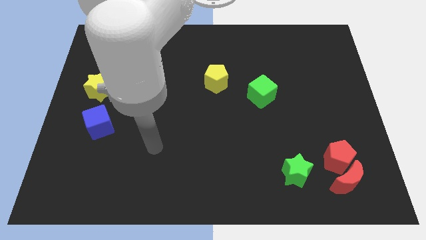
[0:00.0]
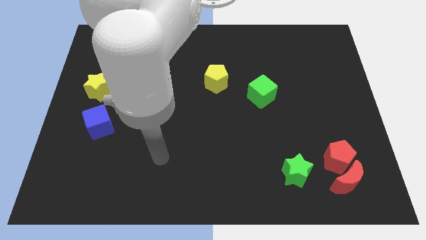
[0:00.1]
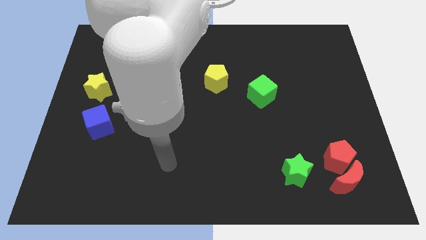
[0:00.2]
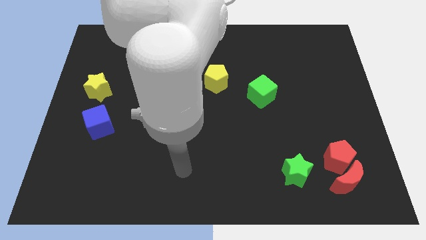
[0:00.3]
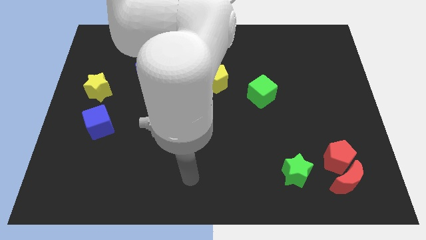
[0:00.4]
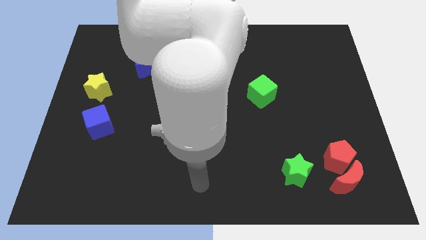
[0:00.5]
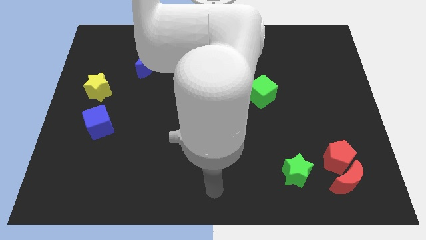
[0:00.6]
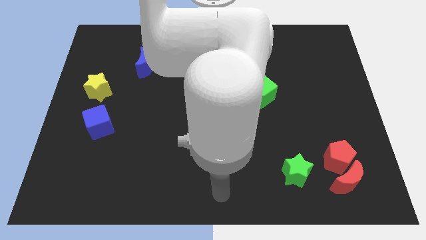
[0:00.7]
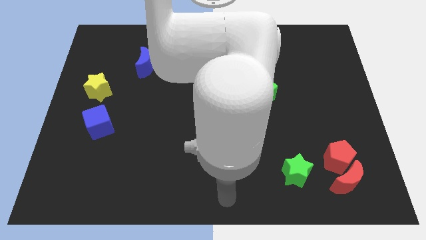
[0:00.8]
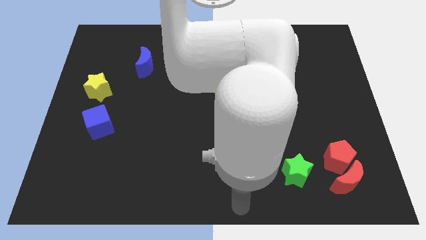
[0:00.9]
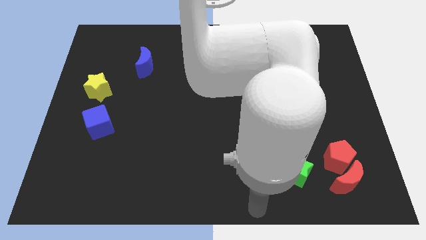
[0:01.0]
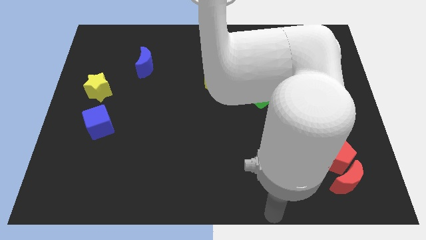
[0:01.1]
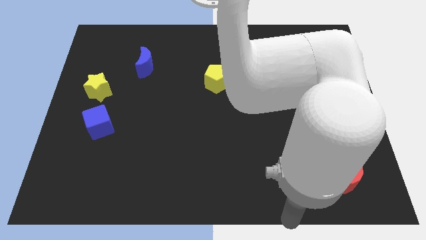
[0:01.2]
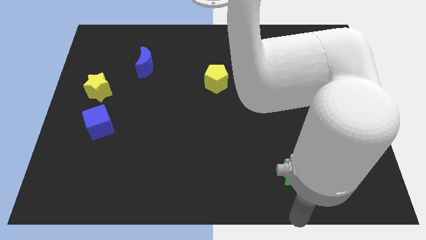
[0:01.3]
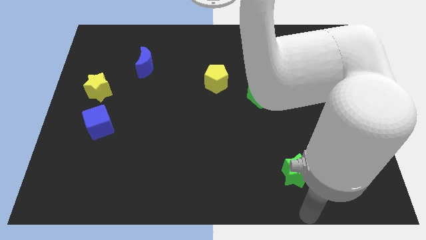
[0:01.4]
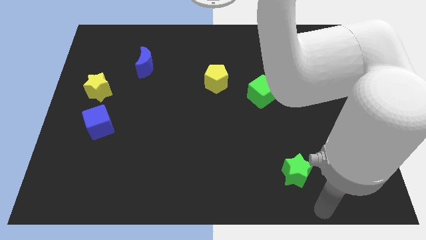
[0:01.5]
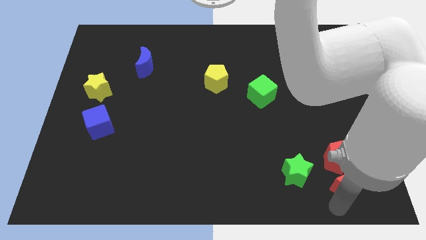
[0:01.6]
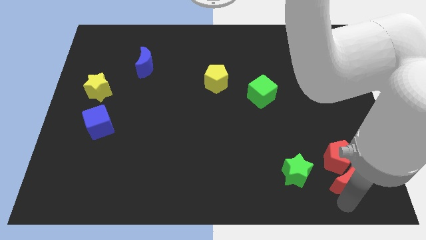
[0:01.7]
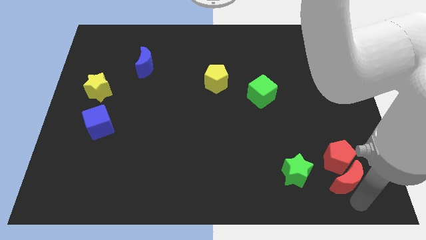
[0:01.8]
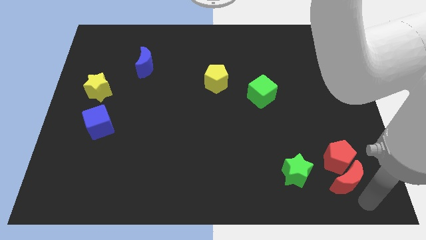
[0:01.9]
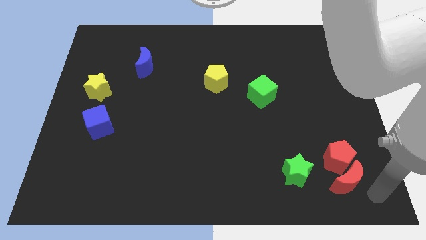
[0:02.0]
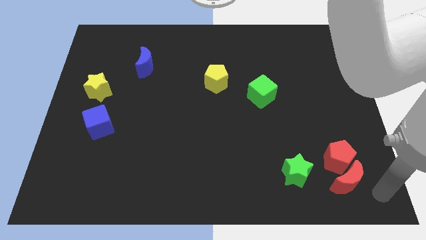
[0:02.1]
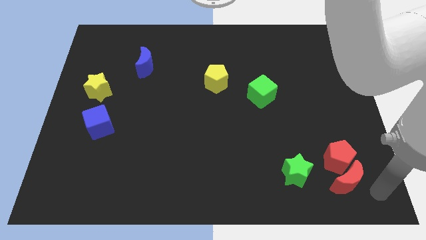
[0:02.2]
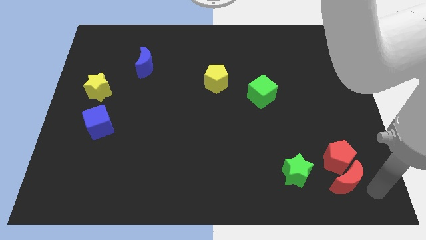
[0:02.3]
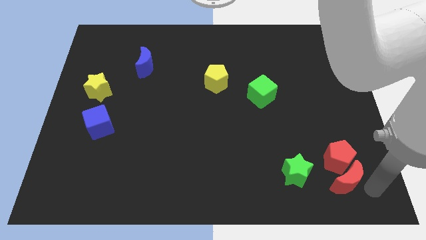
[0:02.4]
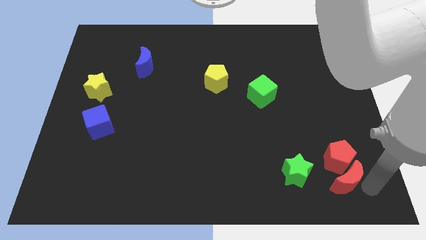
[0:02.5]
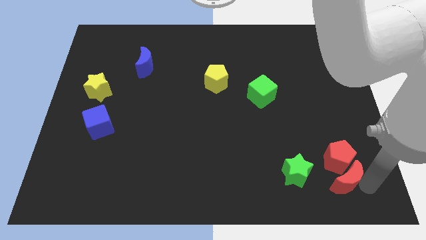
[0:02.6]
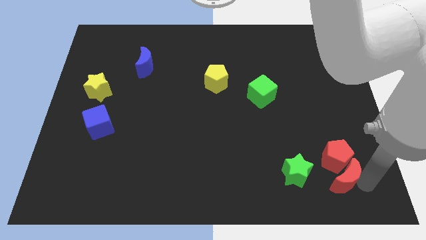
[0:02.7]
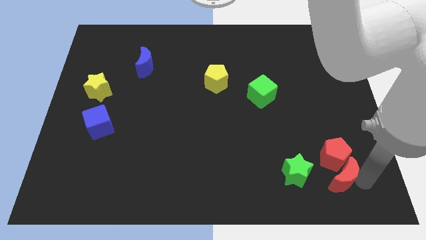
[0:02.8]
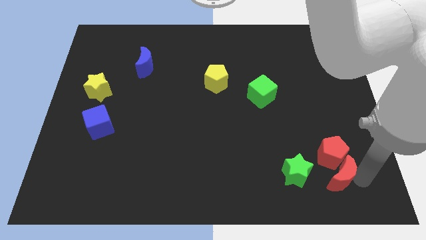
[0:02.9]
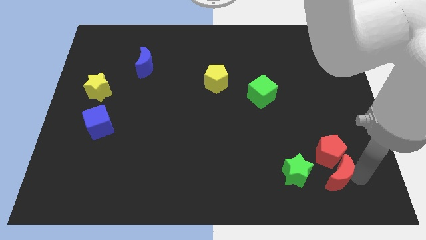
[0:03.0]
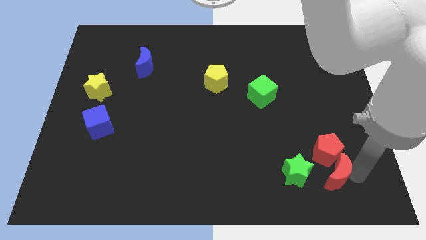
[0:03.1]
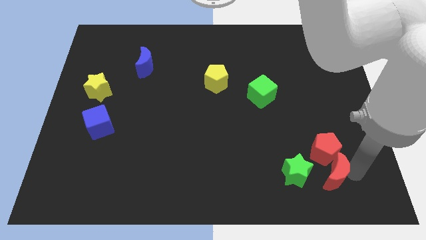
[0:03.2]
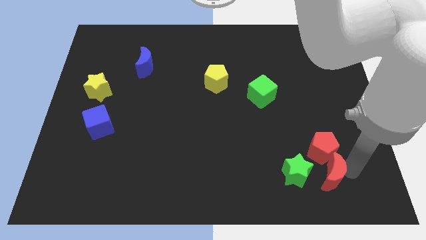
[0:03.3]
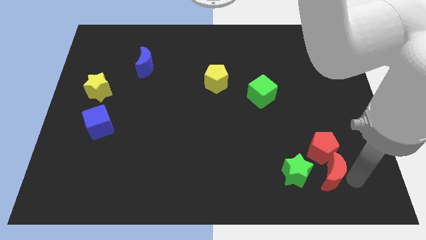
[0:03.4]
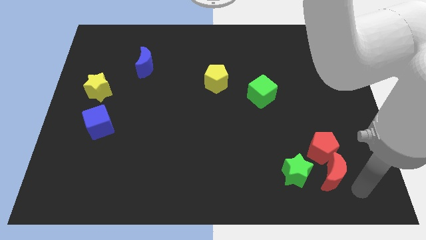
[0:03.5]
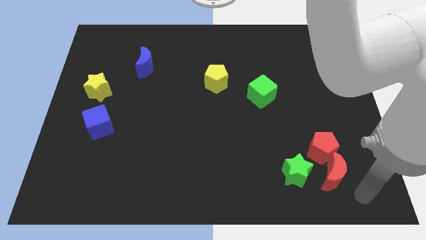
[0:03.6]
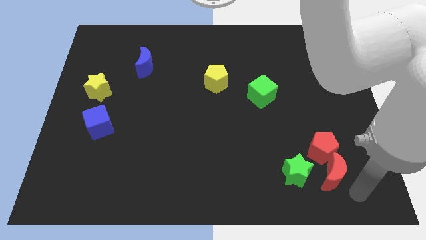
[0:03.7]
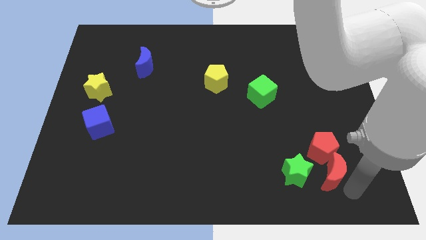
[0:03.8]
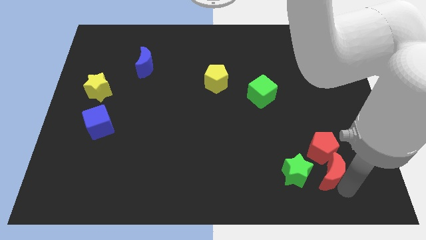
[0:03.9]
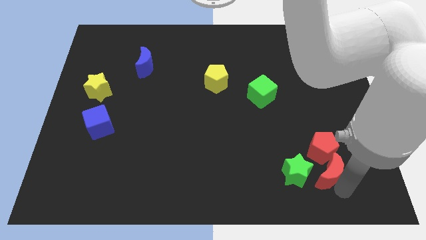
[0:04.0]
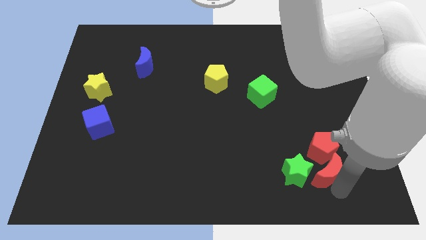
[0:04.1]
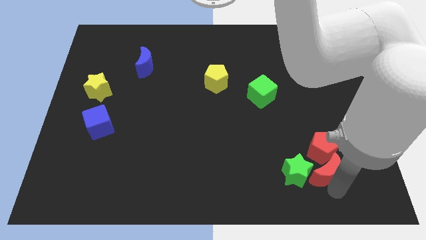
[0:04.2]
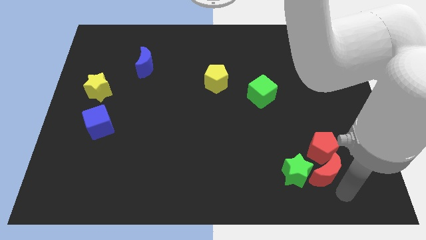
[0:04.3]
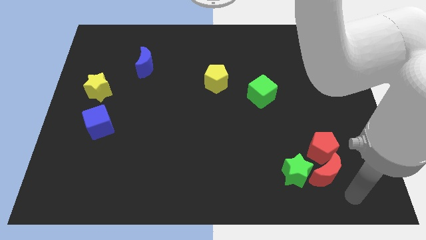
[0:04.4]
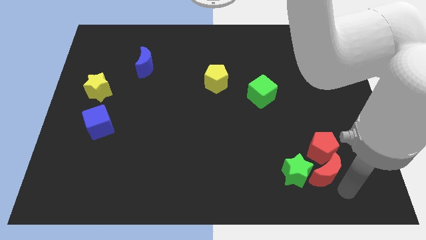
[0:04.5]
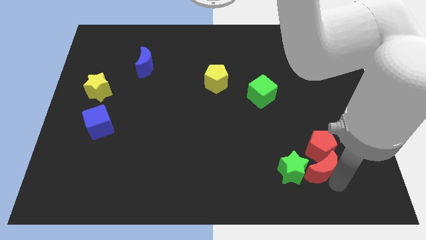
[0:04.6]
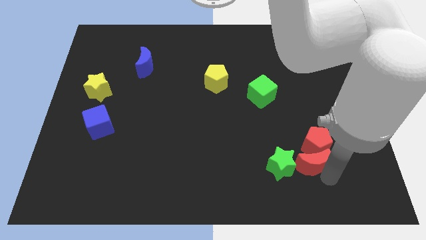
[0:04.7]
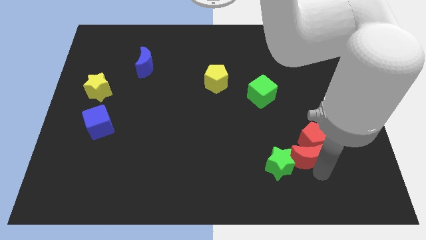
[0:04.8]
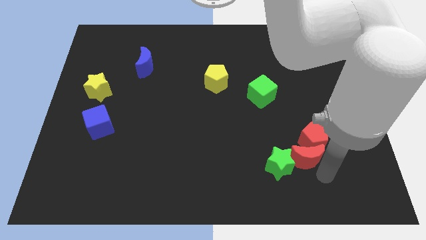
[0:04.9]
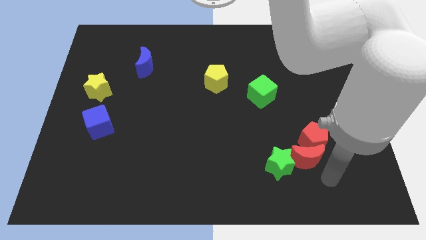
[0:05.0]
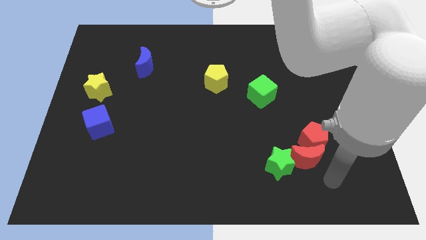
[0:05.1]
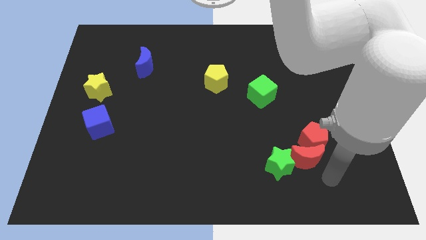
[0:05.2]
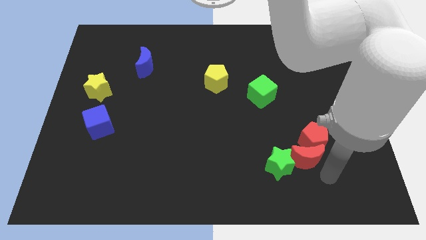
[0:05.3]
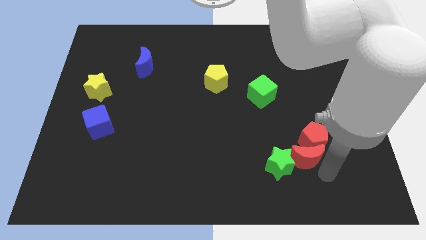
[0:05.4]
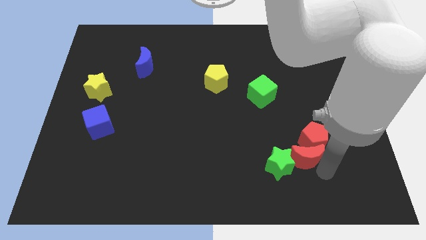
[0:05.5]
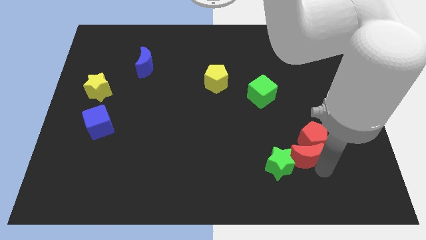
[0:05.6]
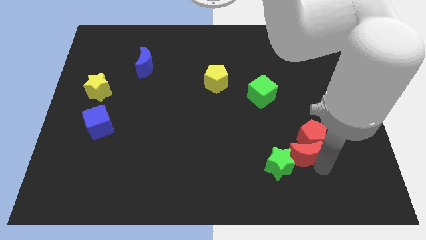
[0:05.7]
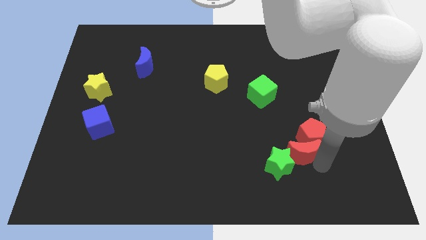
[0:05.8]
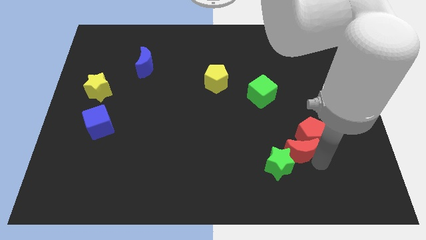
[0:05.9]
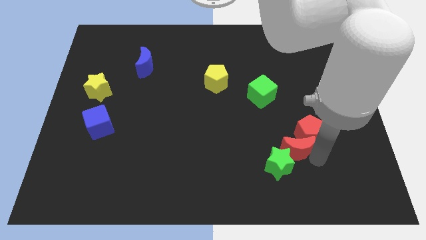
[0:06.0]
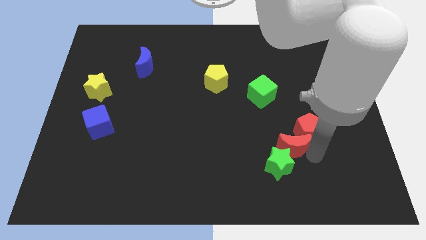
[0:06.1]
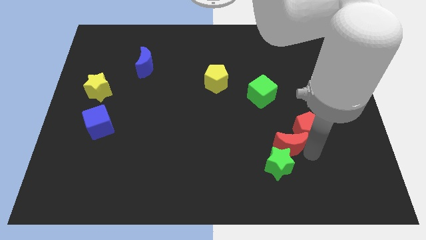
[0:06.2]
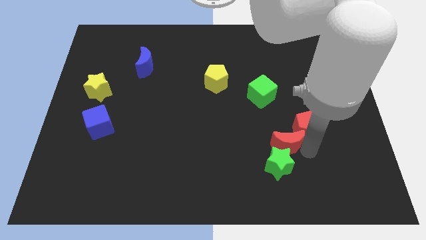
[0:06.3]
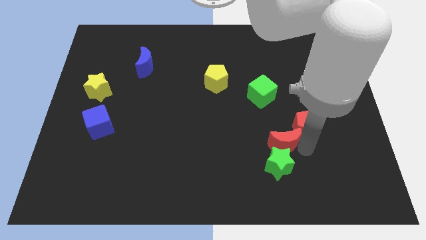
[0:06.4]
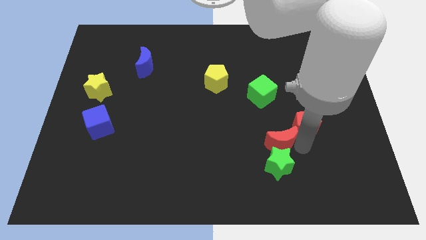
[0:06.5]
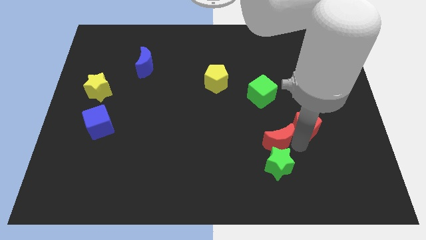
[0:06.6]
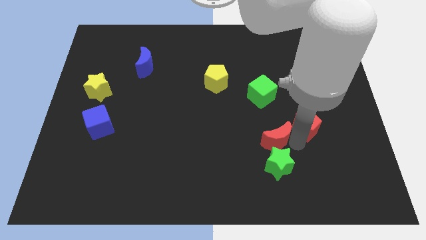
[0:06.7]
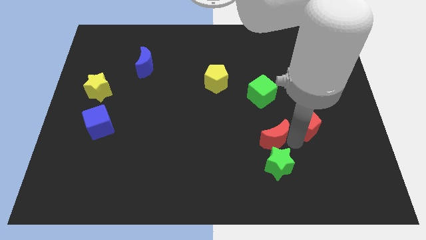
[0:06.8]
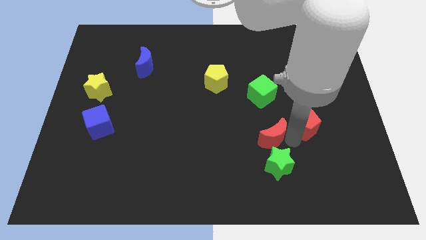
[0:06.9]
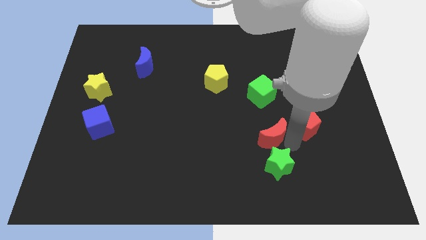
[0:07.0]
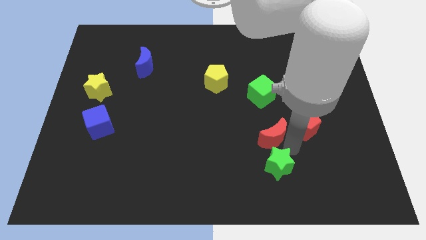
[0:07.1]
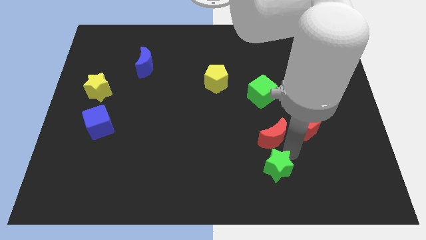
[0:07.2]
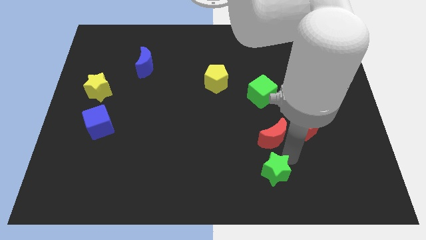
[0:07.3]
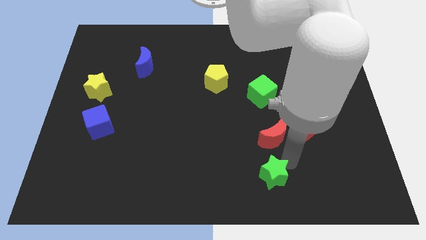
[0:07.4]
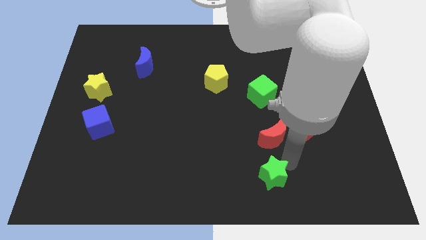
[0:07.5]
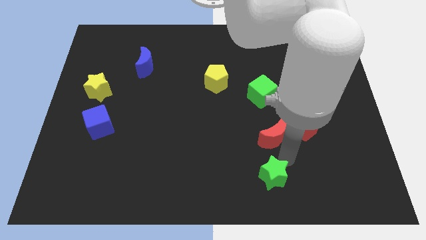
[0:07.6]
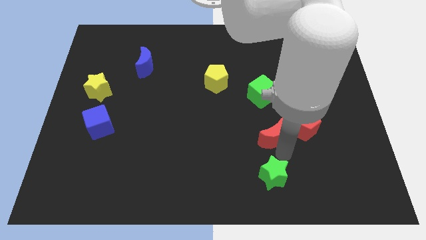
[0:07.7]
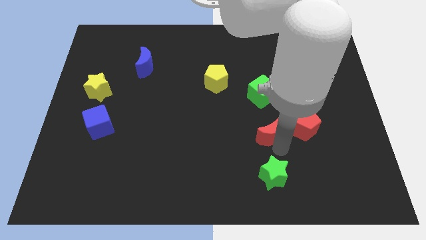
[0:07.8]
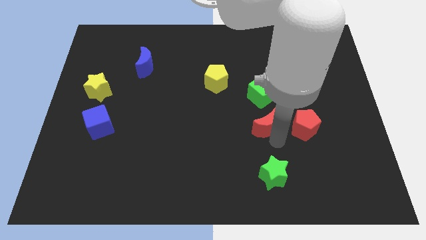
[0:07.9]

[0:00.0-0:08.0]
slide the red moon up and then to the left

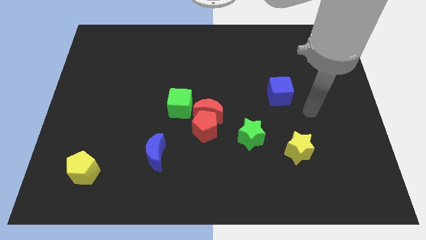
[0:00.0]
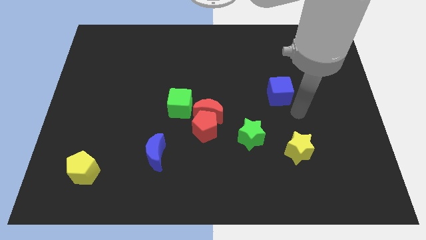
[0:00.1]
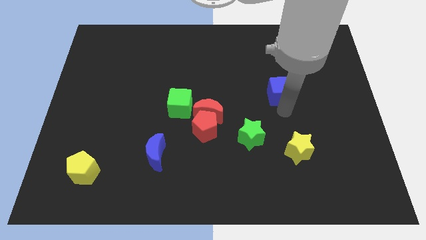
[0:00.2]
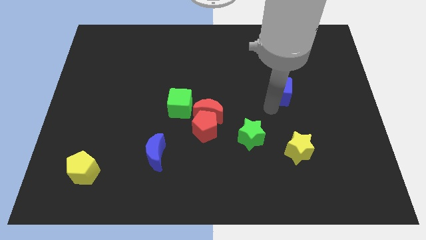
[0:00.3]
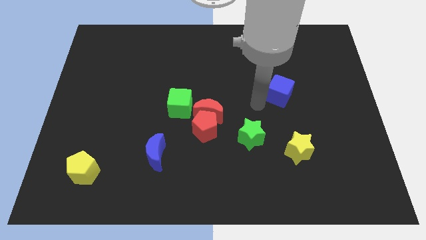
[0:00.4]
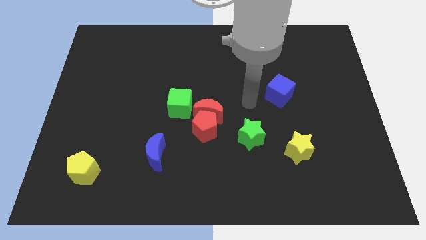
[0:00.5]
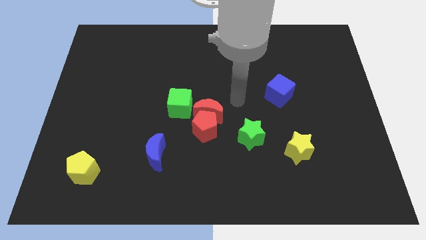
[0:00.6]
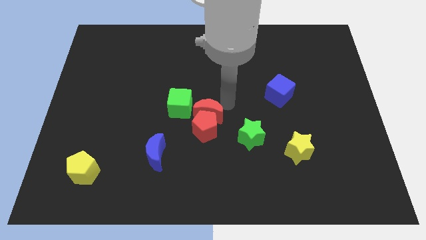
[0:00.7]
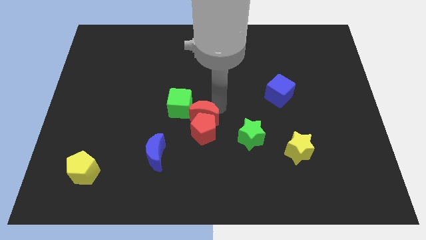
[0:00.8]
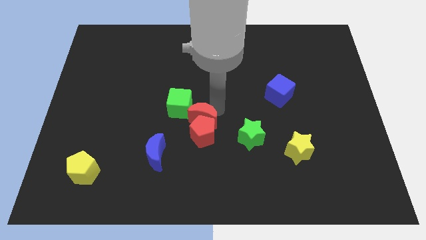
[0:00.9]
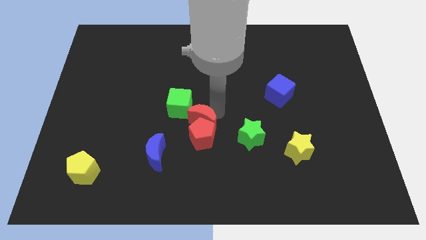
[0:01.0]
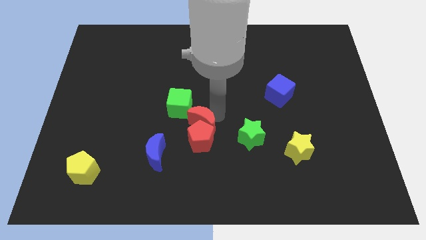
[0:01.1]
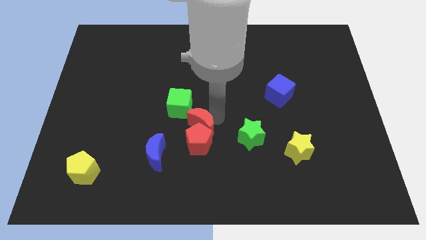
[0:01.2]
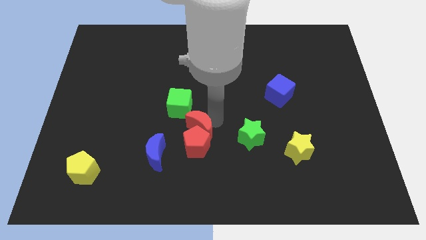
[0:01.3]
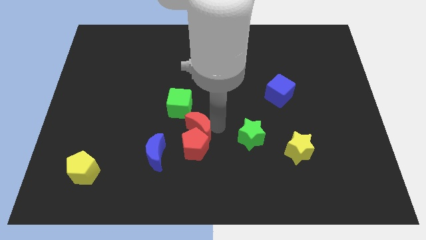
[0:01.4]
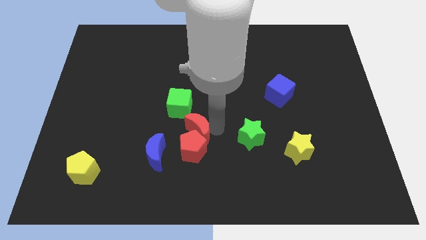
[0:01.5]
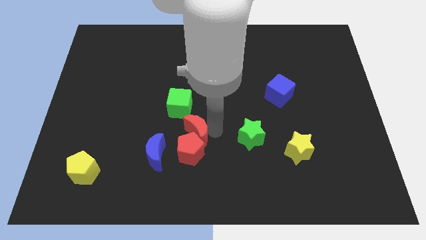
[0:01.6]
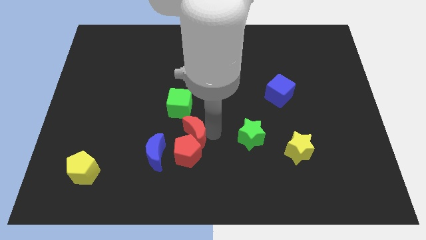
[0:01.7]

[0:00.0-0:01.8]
push the red pentagon a little downwards and left
